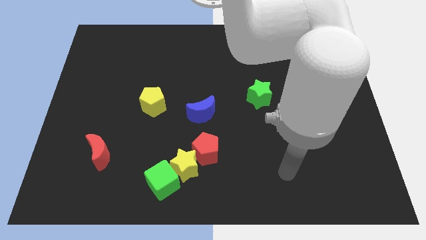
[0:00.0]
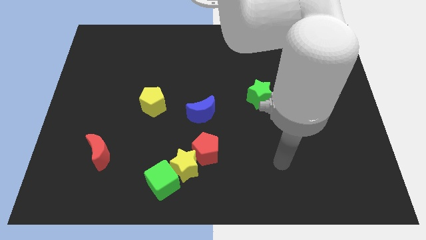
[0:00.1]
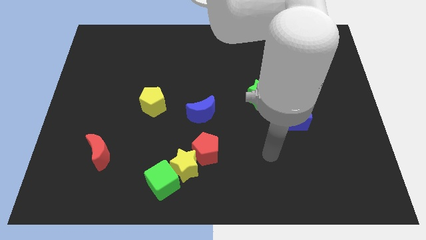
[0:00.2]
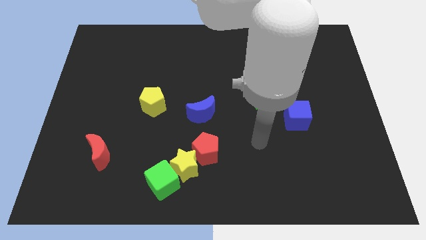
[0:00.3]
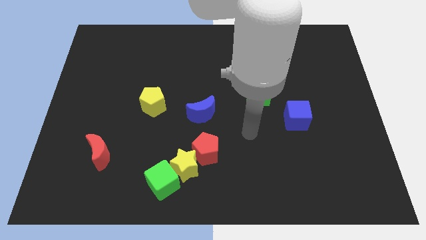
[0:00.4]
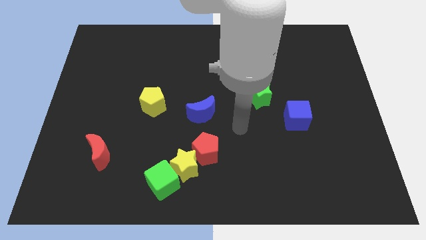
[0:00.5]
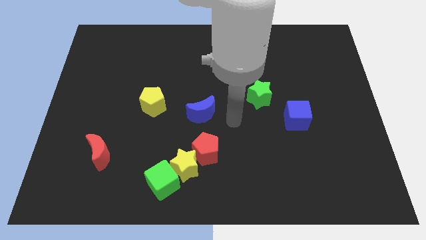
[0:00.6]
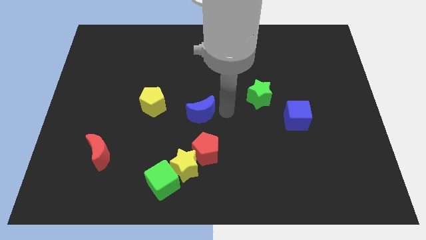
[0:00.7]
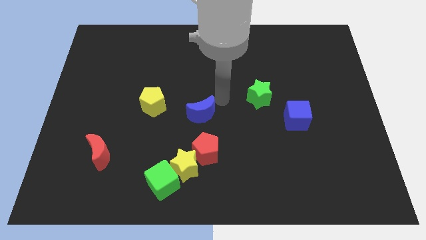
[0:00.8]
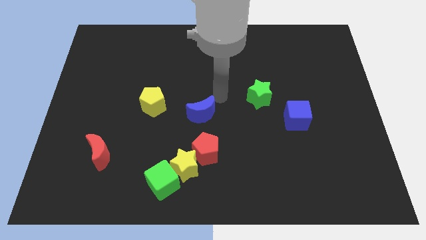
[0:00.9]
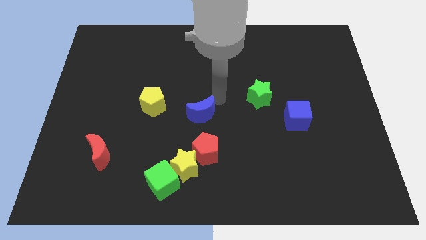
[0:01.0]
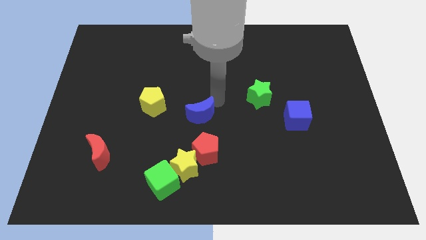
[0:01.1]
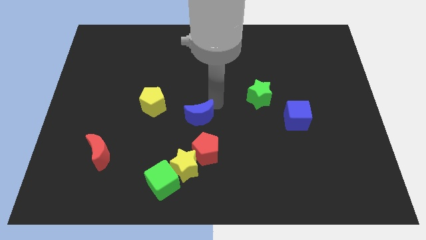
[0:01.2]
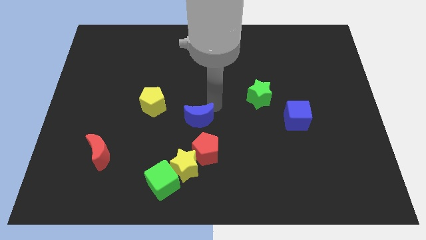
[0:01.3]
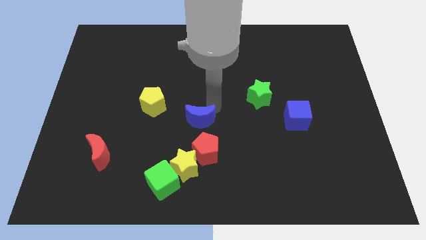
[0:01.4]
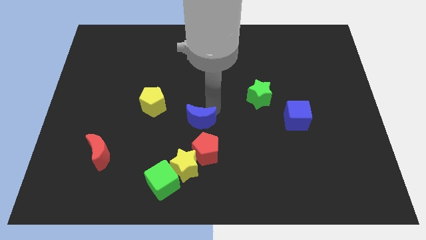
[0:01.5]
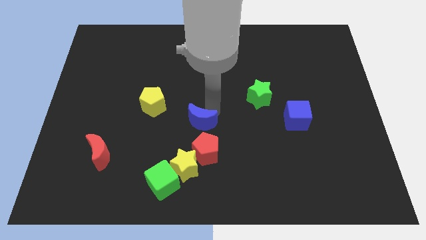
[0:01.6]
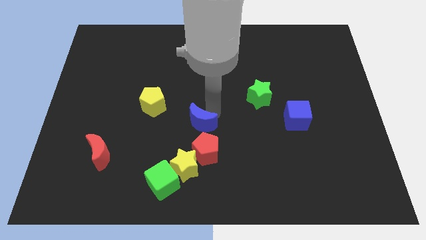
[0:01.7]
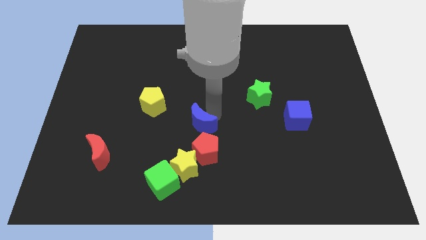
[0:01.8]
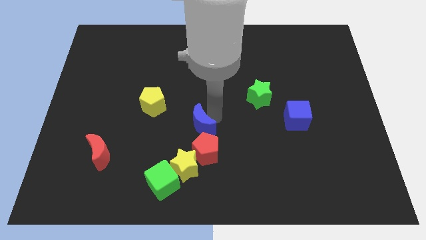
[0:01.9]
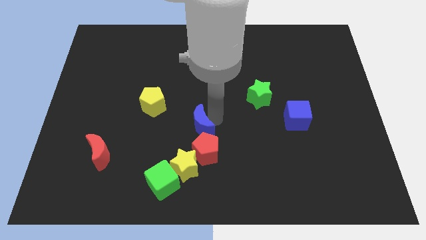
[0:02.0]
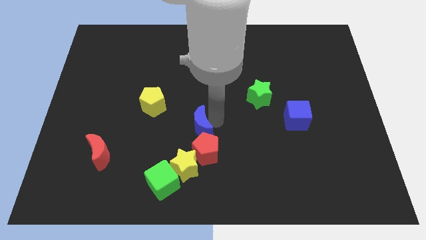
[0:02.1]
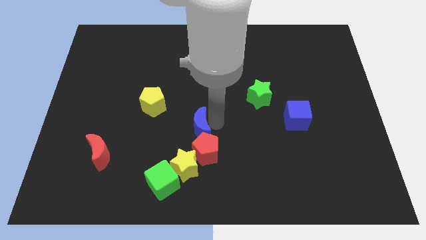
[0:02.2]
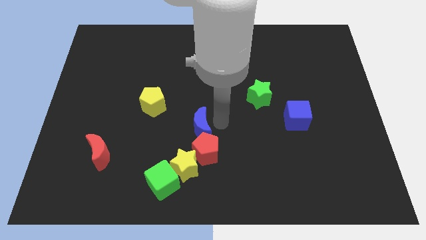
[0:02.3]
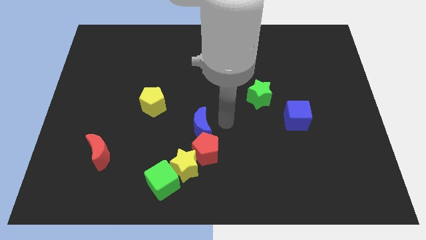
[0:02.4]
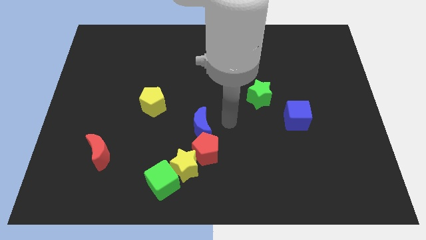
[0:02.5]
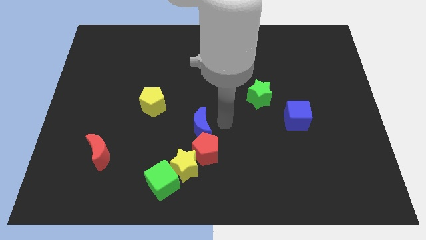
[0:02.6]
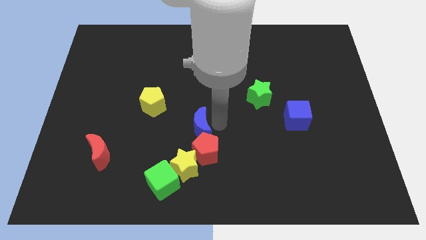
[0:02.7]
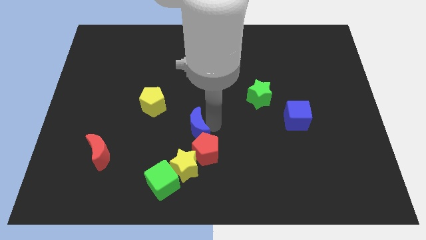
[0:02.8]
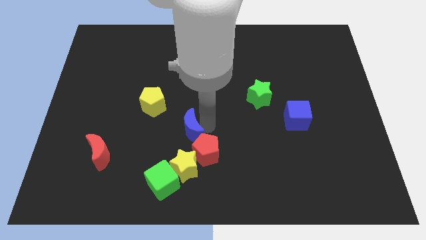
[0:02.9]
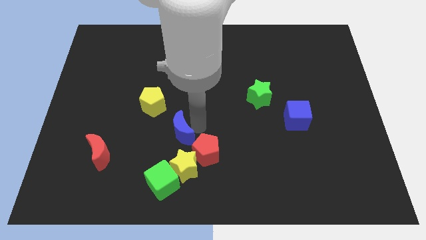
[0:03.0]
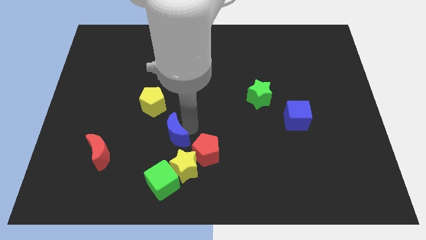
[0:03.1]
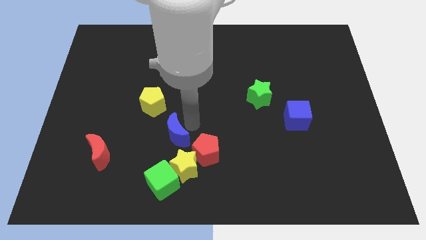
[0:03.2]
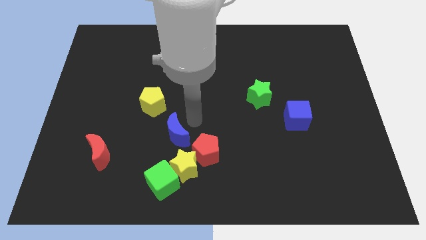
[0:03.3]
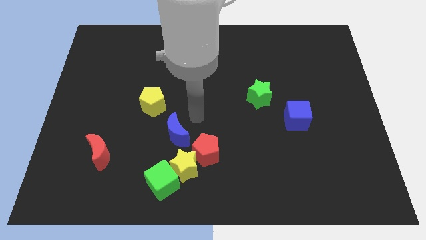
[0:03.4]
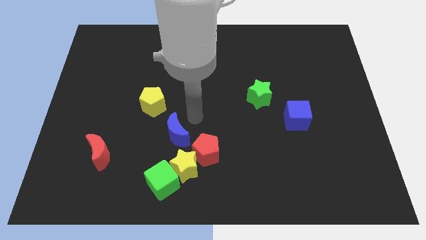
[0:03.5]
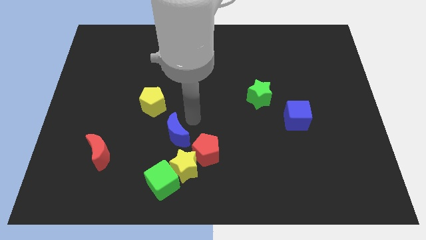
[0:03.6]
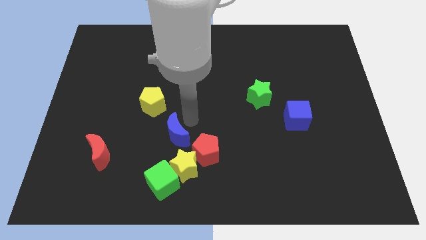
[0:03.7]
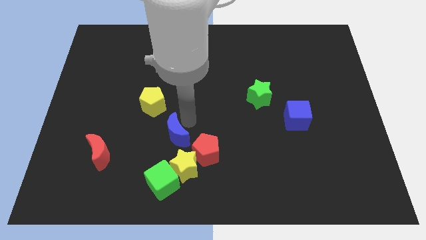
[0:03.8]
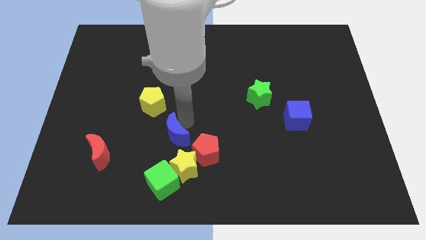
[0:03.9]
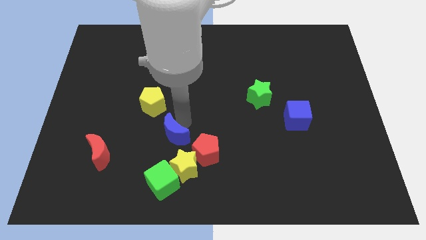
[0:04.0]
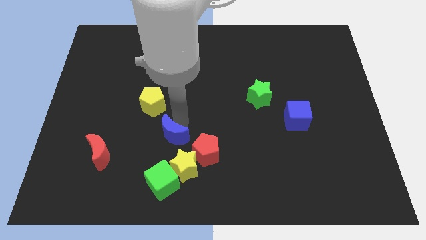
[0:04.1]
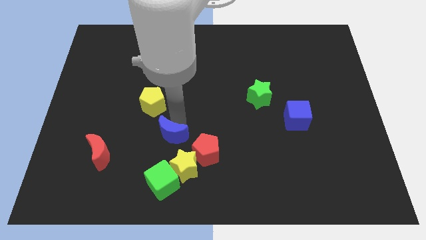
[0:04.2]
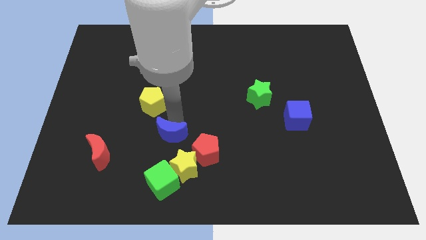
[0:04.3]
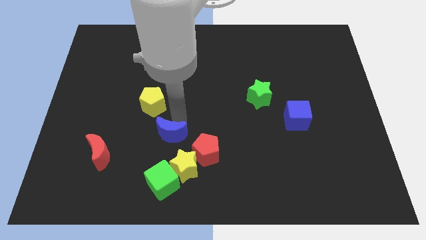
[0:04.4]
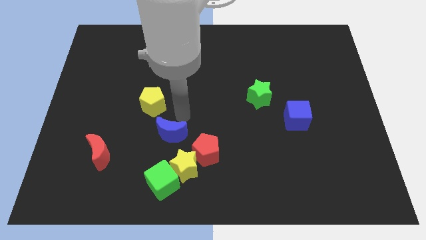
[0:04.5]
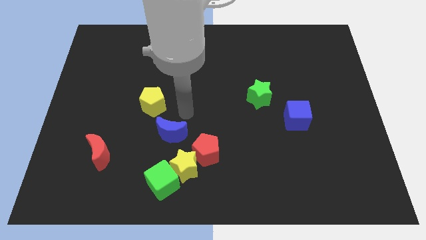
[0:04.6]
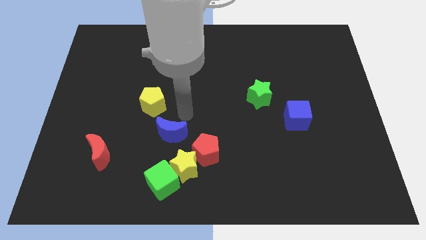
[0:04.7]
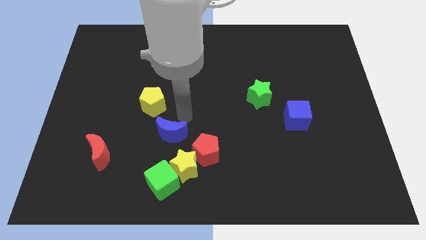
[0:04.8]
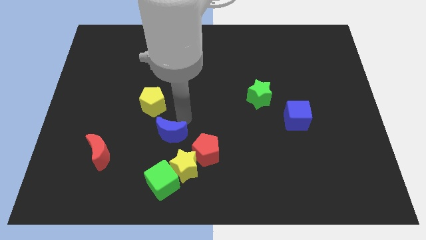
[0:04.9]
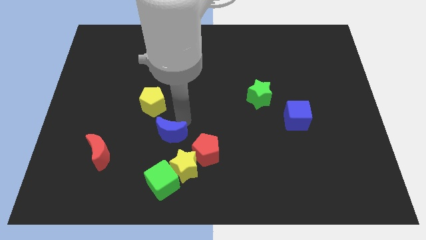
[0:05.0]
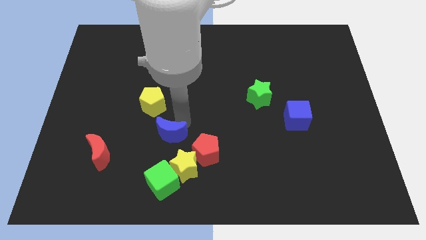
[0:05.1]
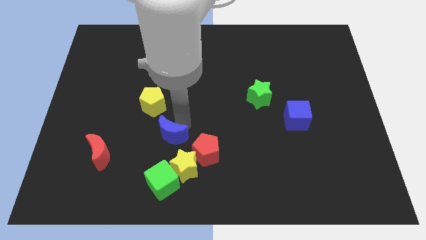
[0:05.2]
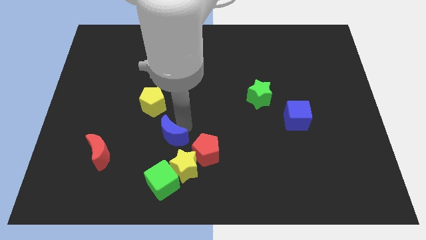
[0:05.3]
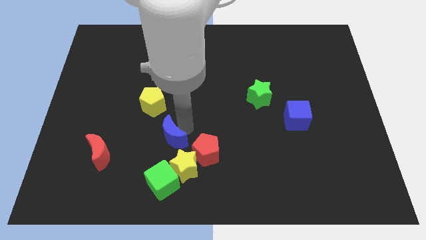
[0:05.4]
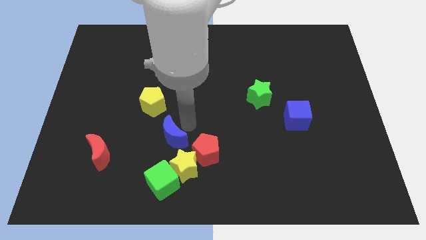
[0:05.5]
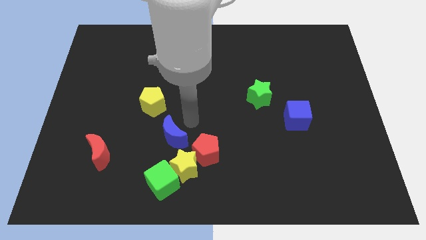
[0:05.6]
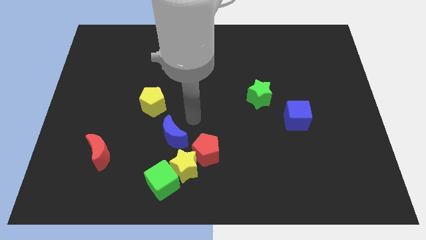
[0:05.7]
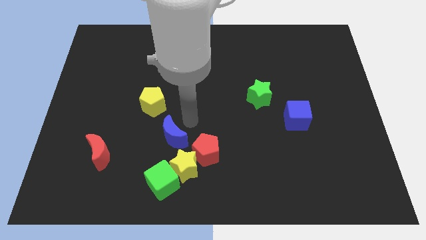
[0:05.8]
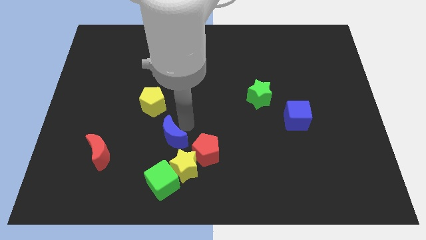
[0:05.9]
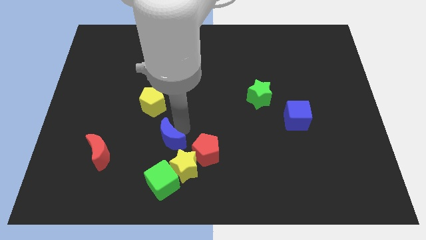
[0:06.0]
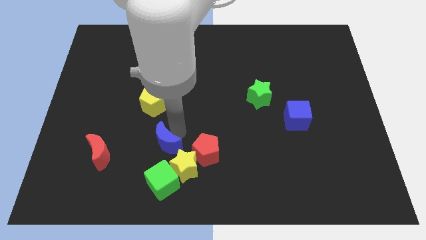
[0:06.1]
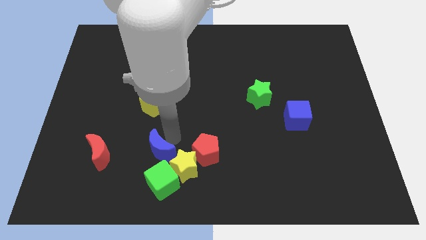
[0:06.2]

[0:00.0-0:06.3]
push the blue moon to the left of the yellow star

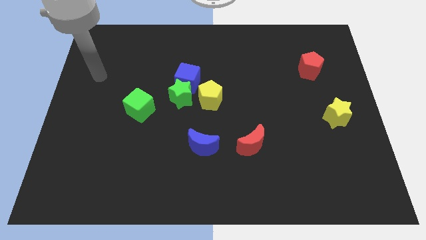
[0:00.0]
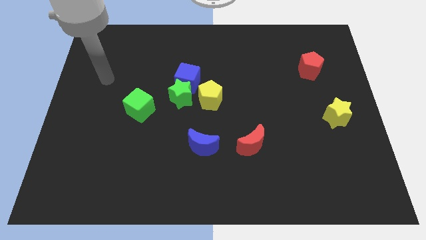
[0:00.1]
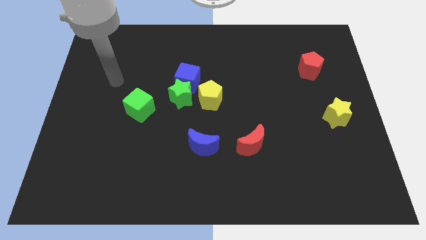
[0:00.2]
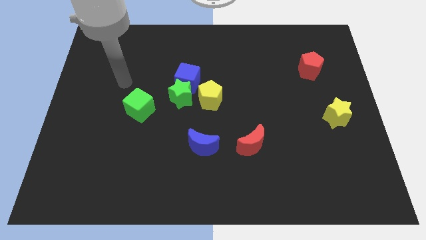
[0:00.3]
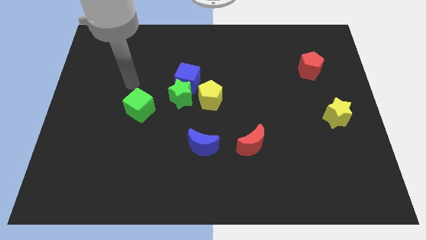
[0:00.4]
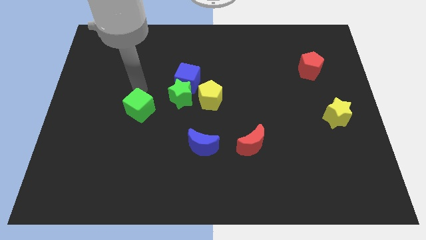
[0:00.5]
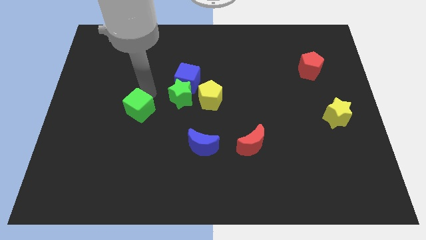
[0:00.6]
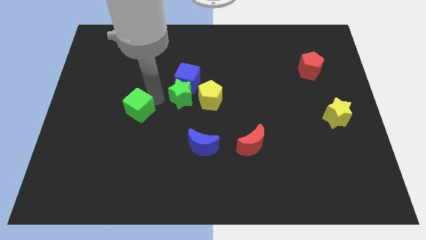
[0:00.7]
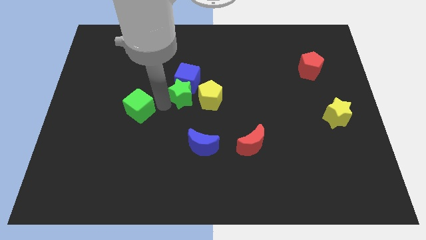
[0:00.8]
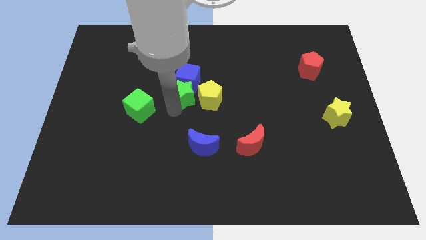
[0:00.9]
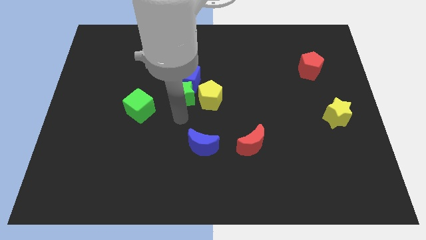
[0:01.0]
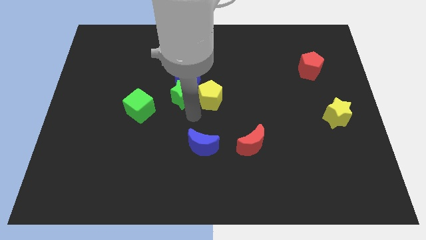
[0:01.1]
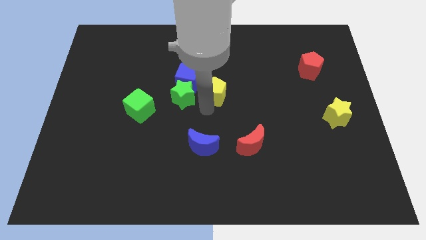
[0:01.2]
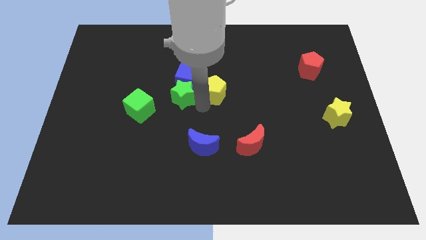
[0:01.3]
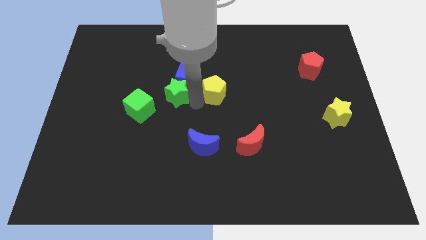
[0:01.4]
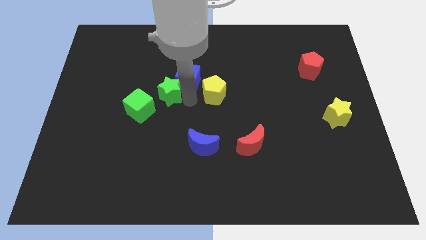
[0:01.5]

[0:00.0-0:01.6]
put the green star to the left side of the blue cube
